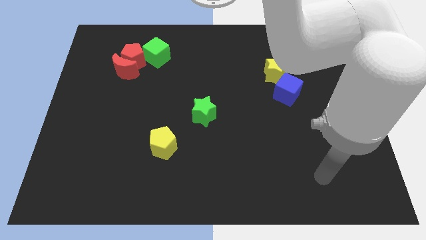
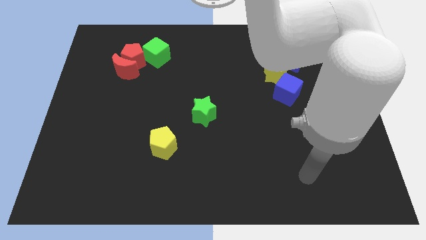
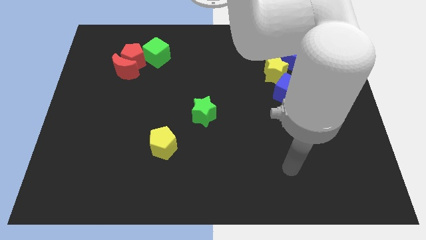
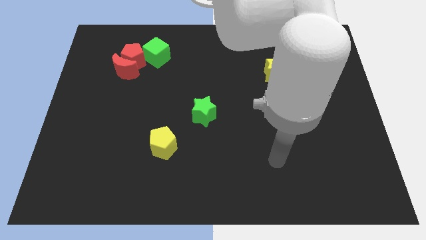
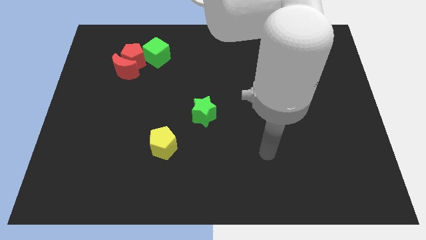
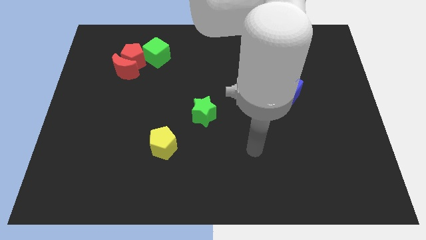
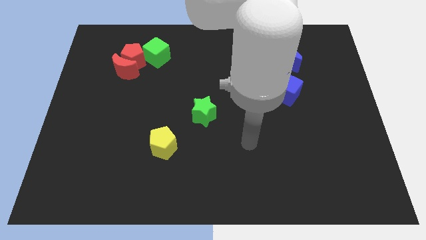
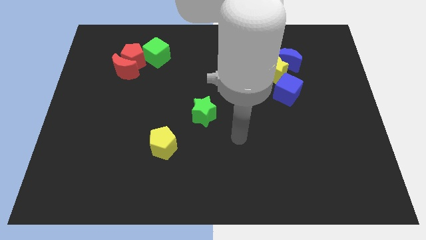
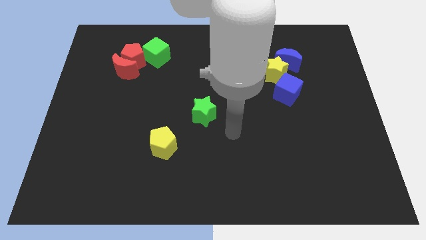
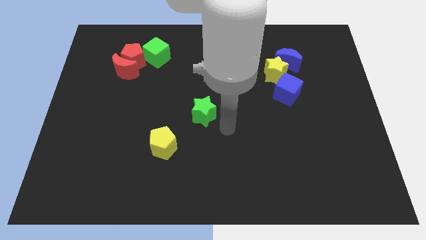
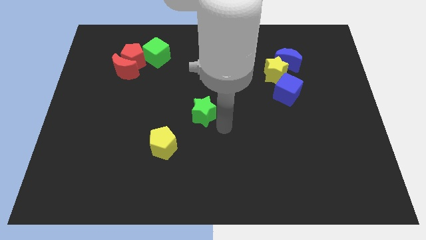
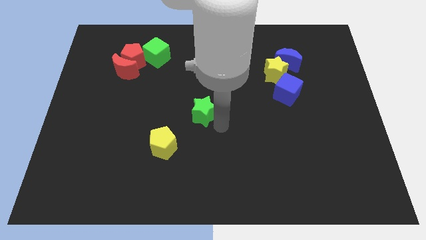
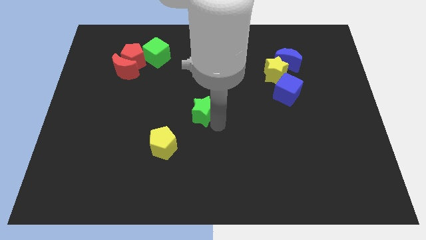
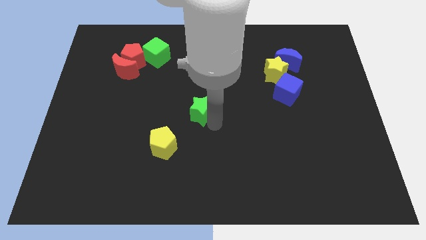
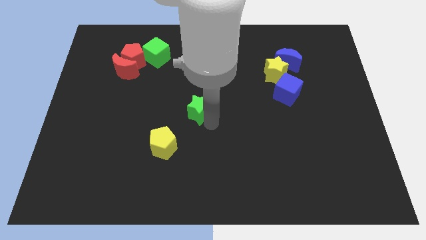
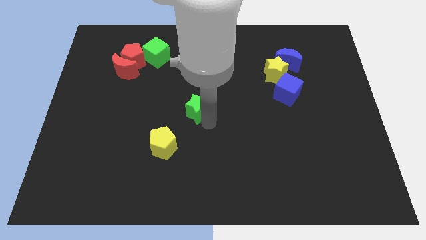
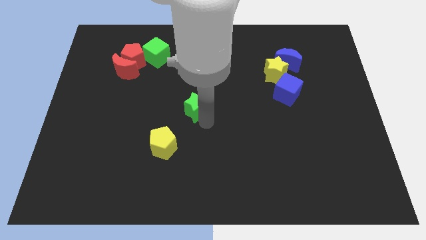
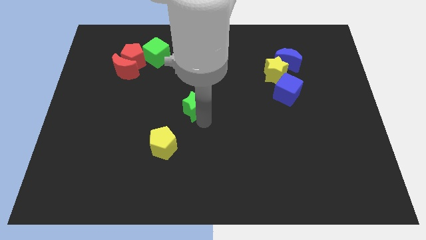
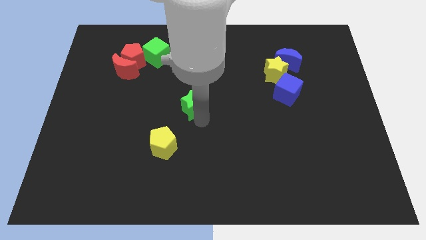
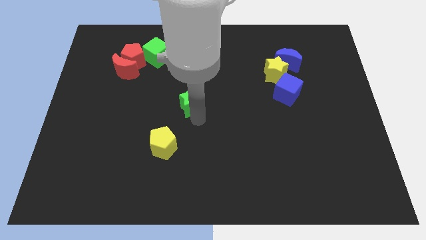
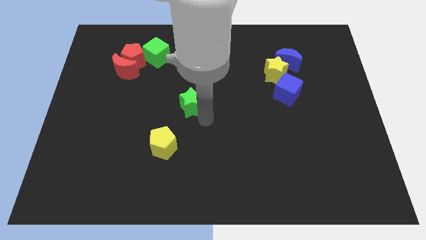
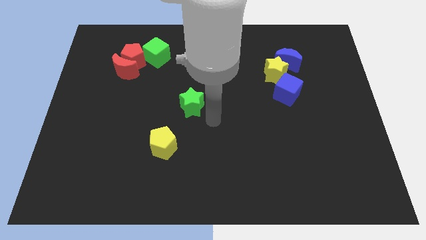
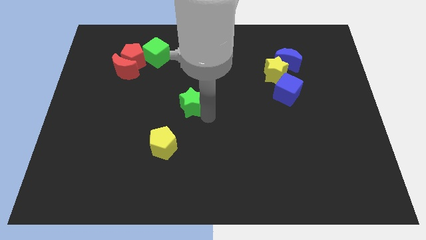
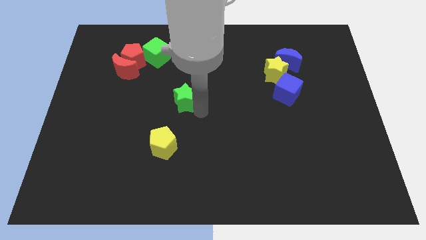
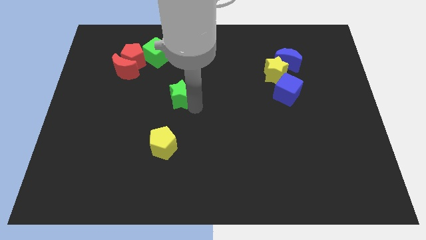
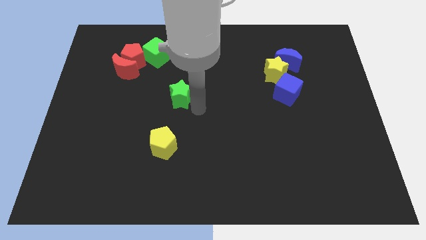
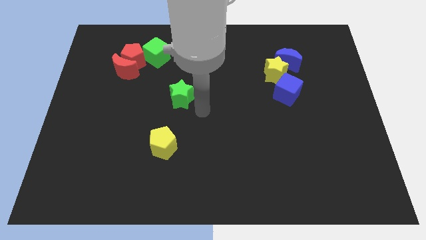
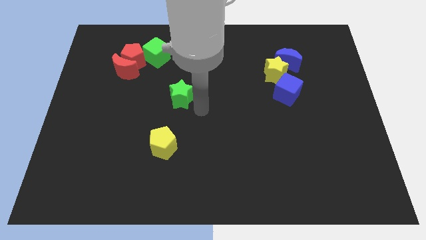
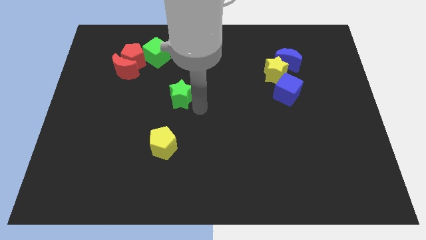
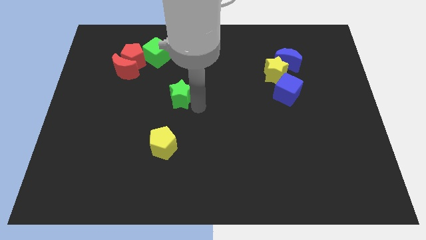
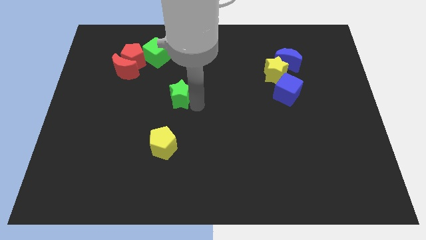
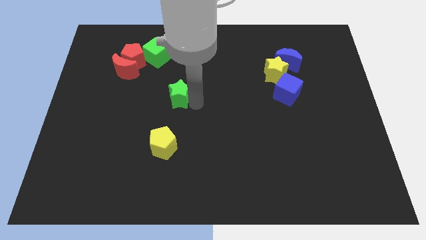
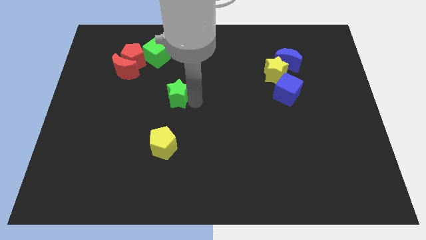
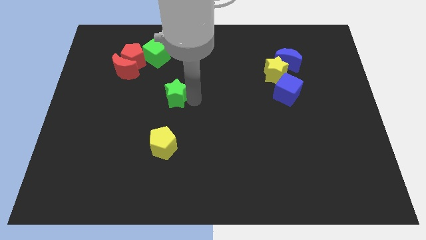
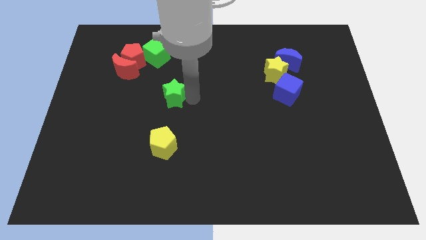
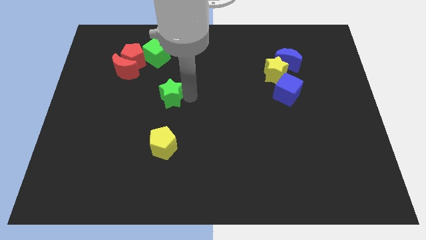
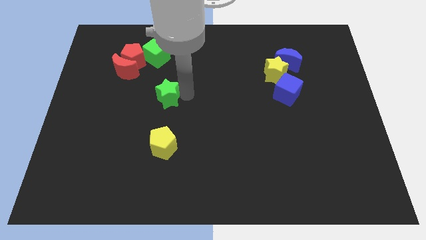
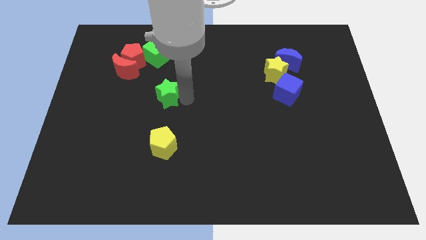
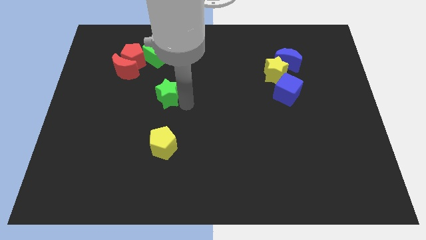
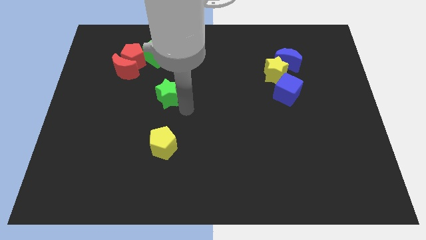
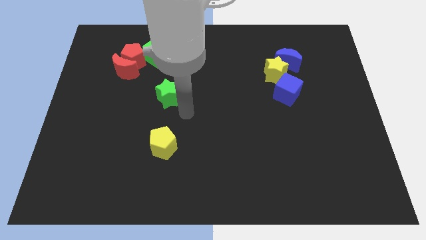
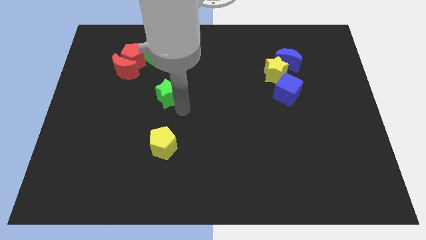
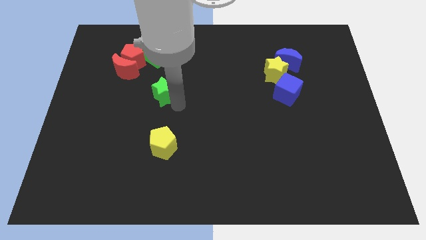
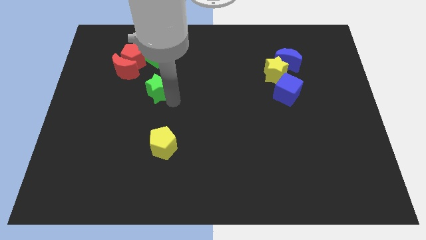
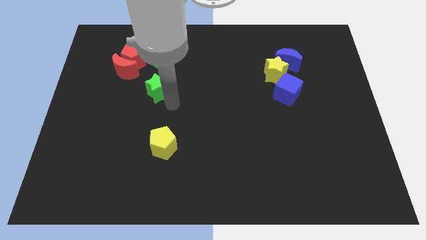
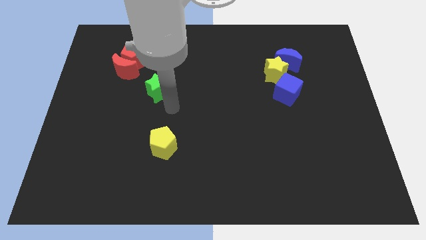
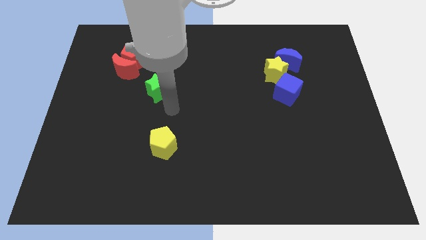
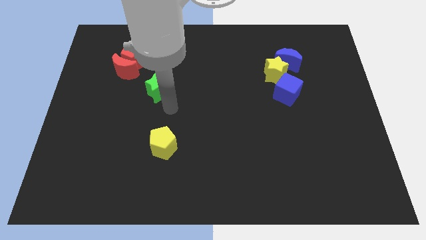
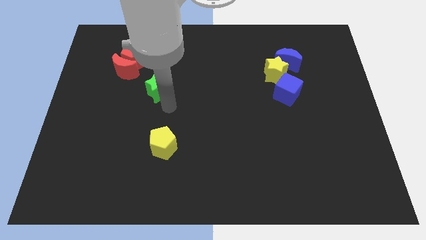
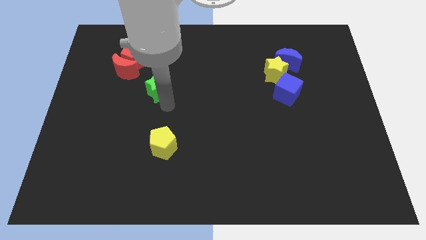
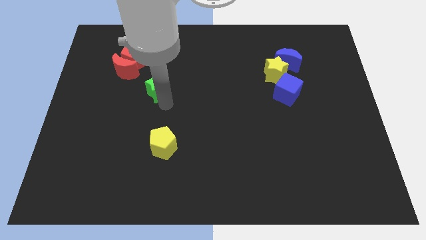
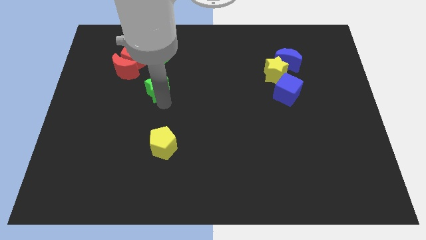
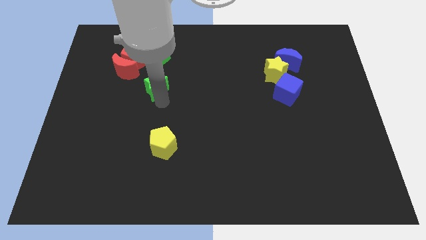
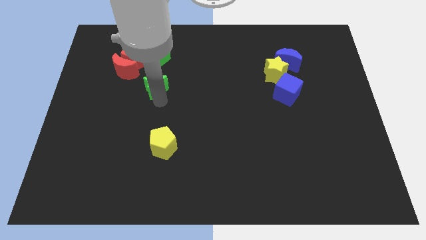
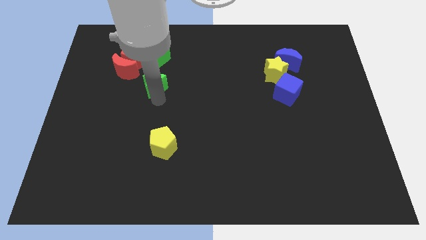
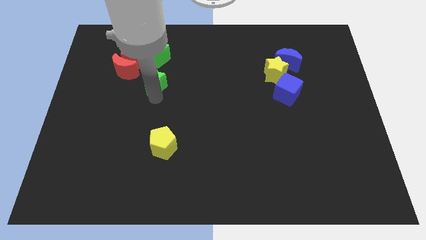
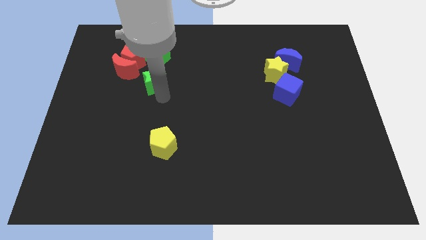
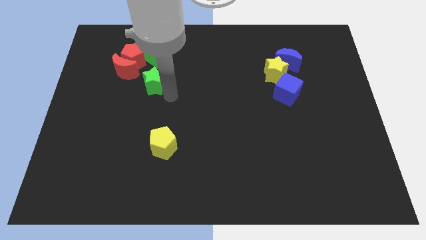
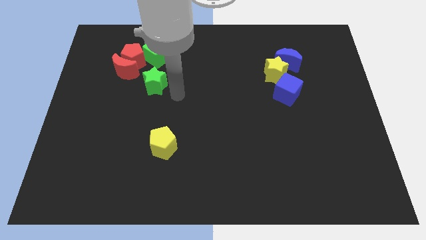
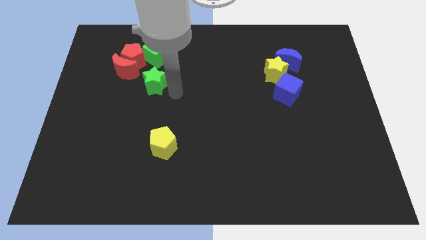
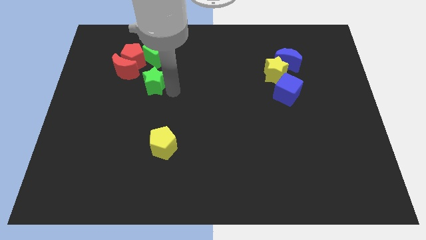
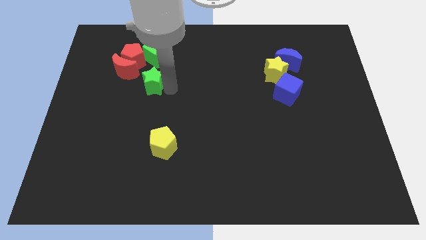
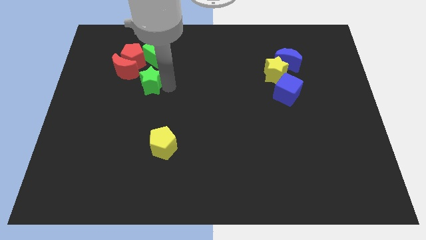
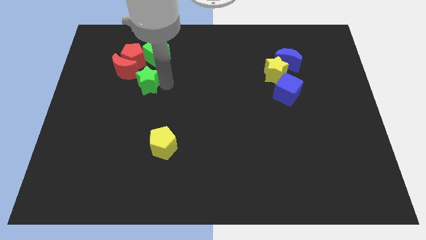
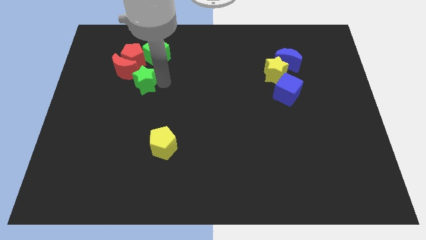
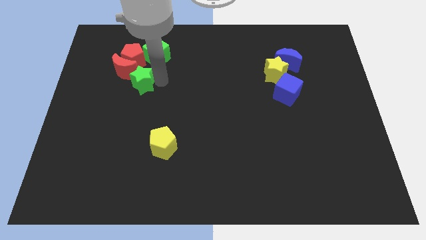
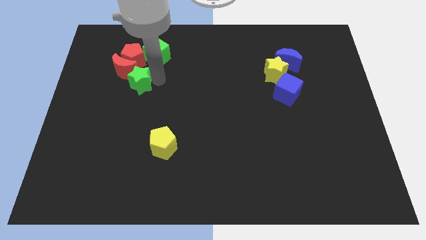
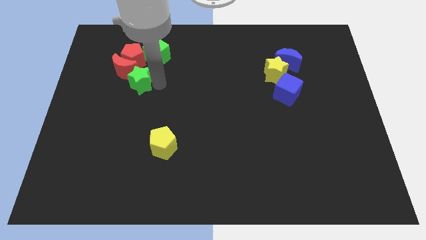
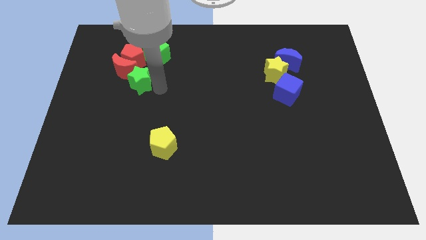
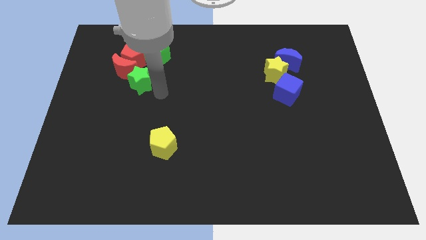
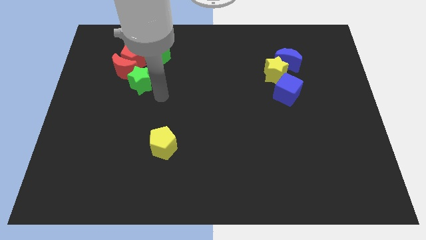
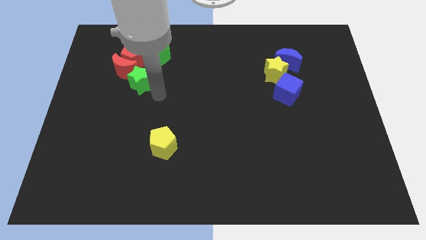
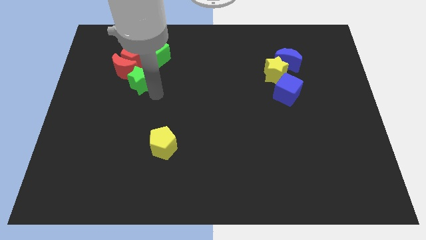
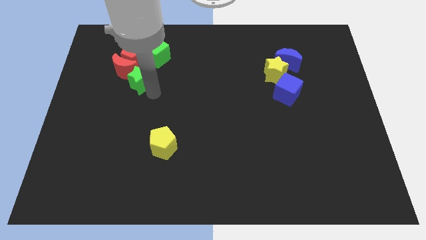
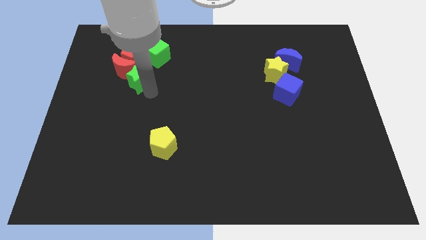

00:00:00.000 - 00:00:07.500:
put the green star next to the red moon
